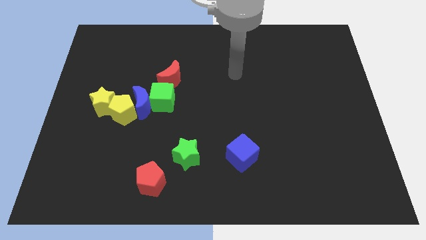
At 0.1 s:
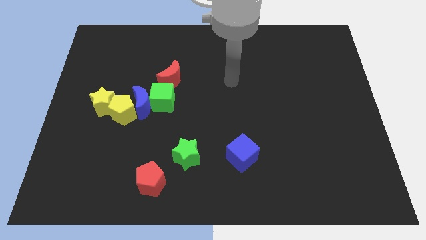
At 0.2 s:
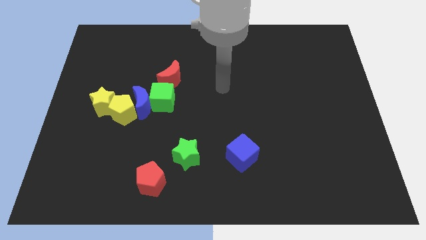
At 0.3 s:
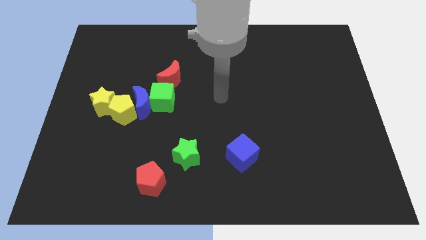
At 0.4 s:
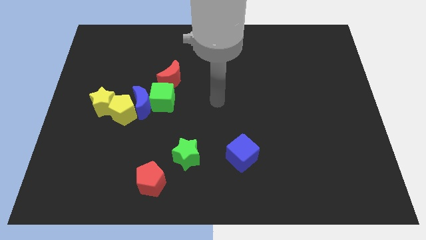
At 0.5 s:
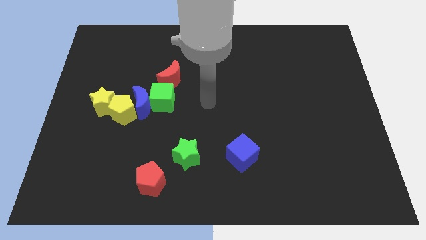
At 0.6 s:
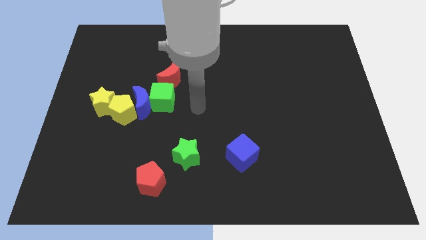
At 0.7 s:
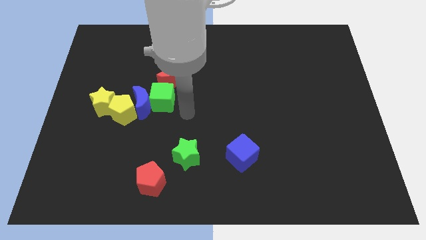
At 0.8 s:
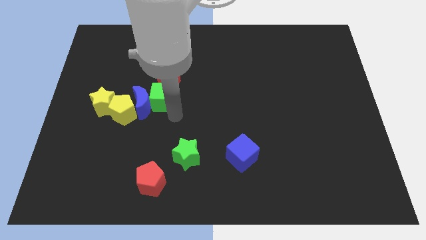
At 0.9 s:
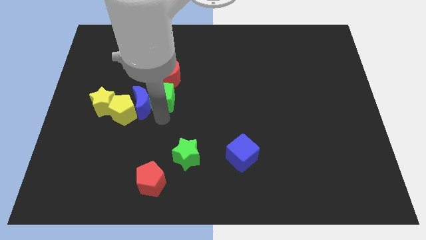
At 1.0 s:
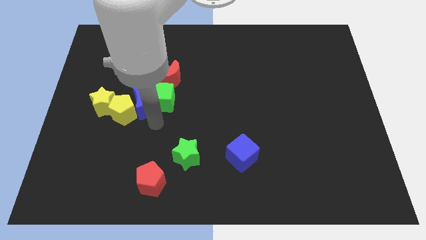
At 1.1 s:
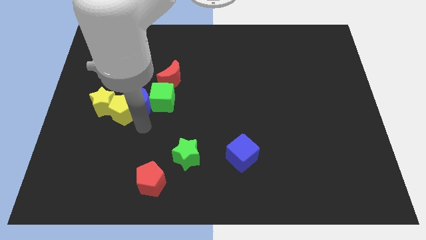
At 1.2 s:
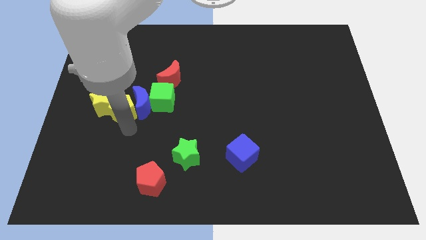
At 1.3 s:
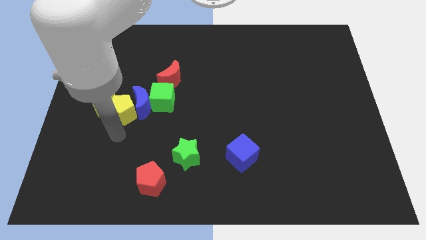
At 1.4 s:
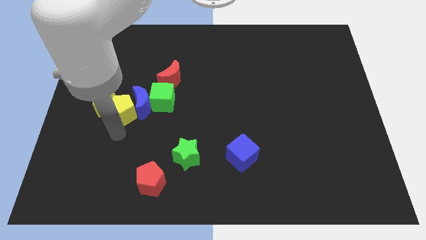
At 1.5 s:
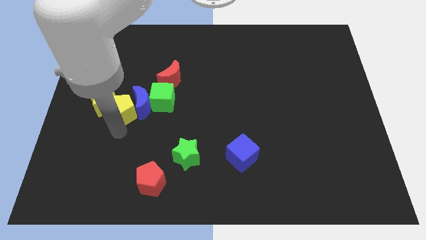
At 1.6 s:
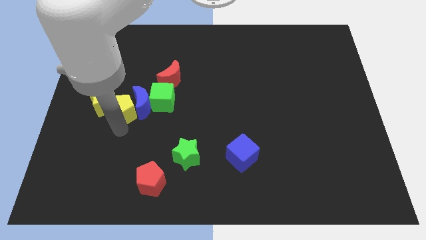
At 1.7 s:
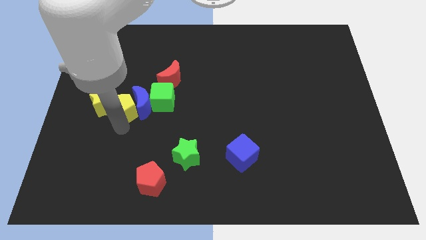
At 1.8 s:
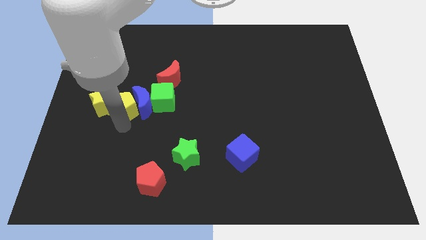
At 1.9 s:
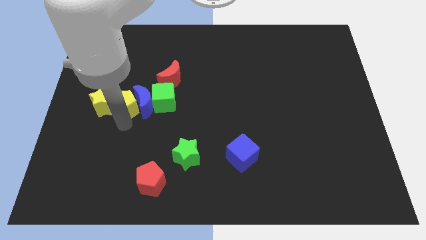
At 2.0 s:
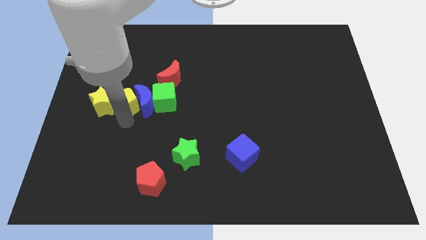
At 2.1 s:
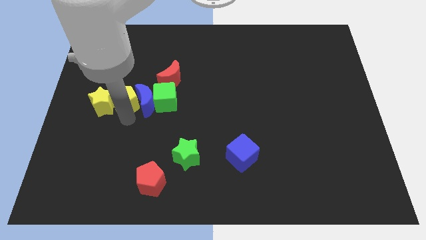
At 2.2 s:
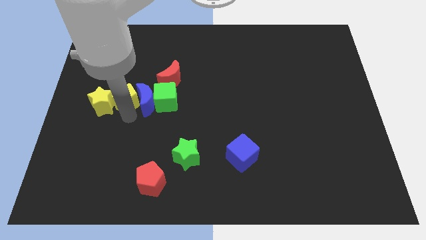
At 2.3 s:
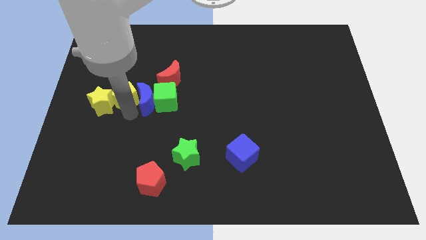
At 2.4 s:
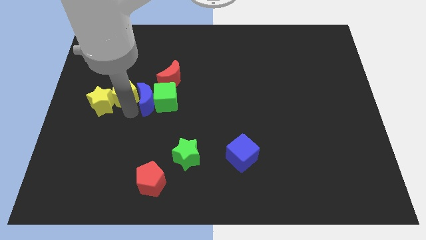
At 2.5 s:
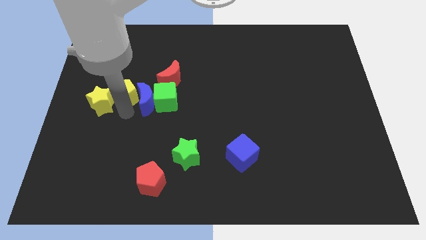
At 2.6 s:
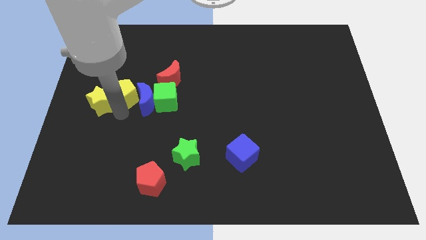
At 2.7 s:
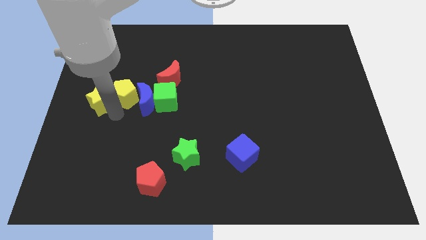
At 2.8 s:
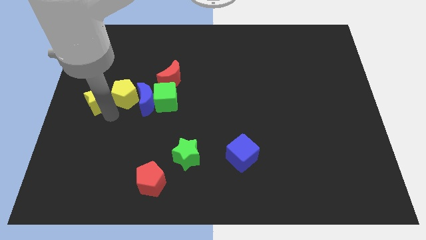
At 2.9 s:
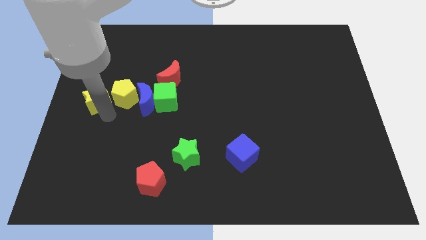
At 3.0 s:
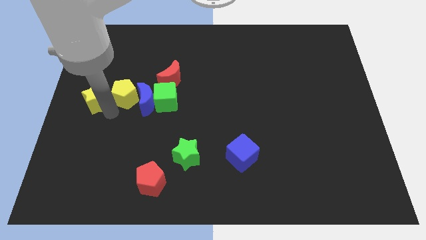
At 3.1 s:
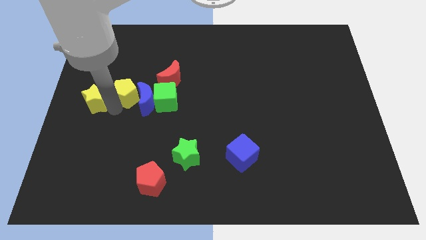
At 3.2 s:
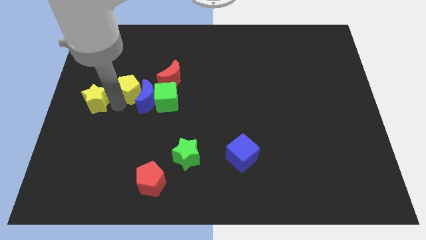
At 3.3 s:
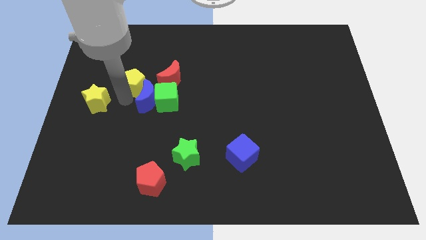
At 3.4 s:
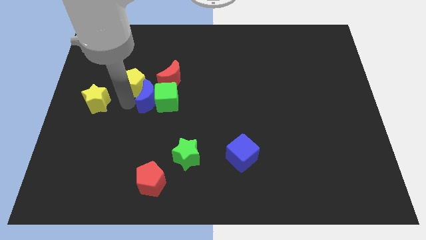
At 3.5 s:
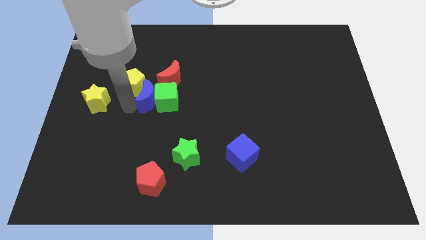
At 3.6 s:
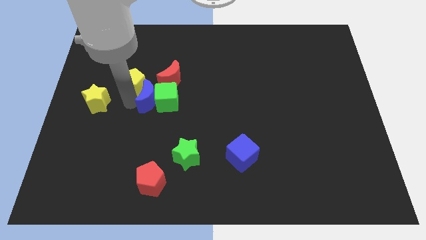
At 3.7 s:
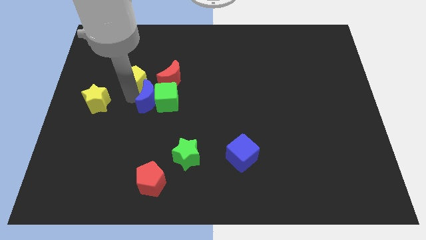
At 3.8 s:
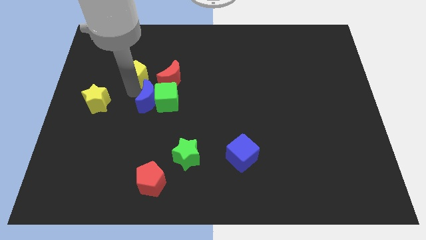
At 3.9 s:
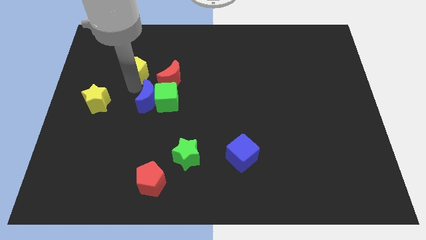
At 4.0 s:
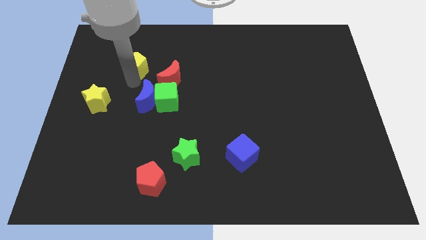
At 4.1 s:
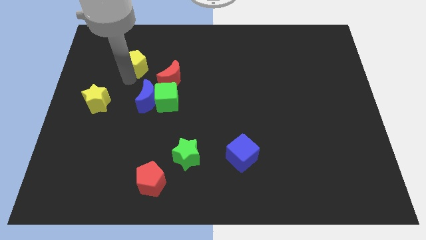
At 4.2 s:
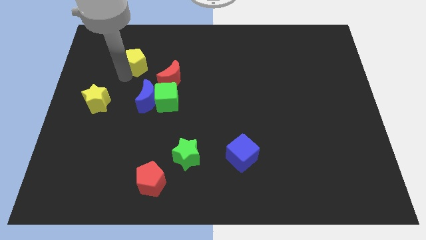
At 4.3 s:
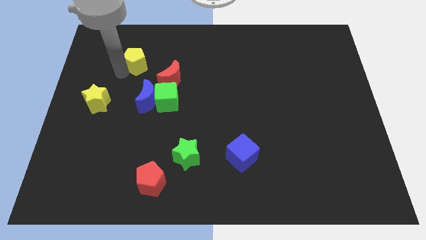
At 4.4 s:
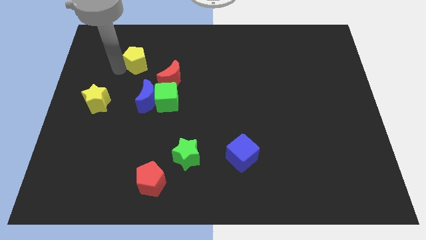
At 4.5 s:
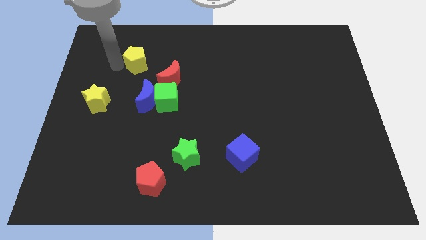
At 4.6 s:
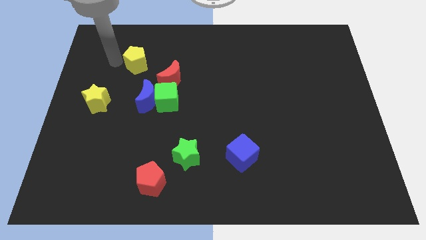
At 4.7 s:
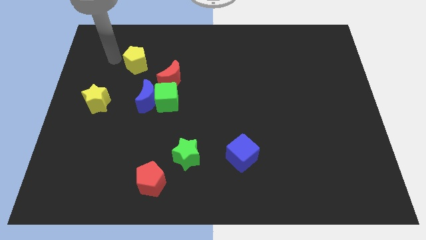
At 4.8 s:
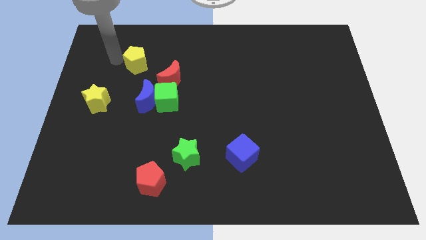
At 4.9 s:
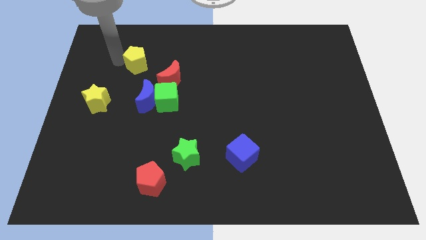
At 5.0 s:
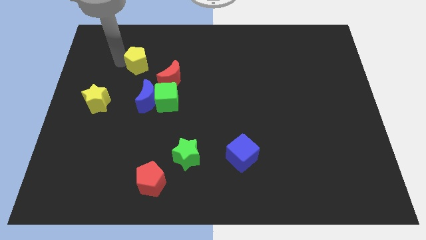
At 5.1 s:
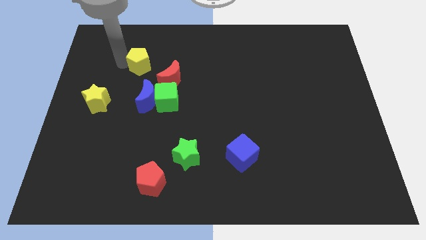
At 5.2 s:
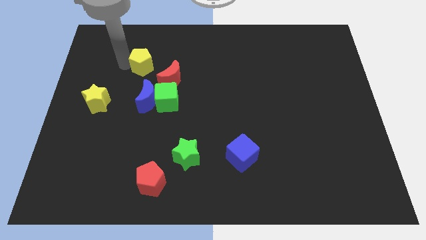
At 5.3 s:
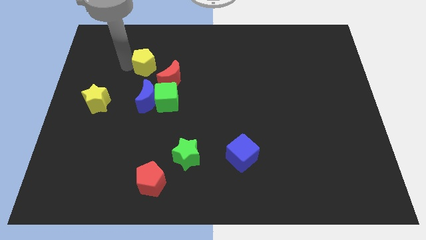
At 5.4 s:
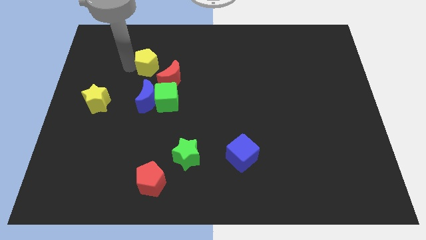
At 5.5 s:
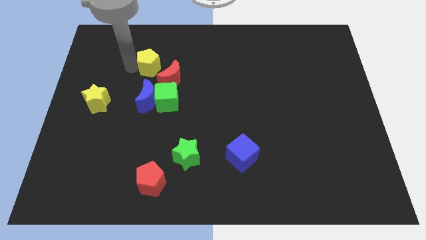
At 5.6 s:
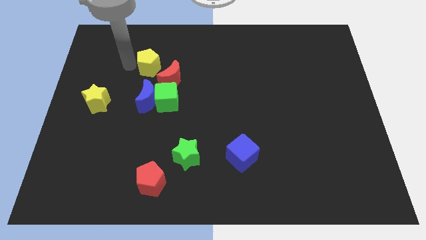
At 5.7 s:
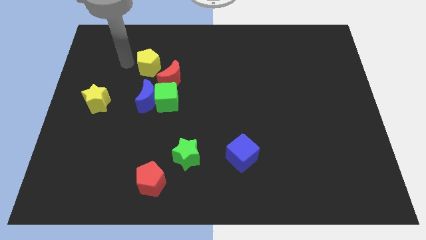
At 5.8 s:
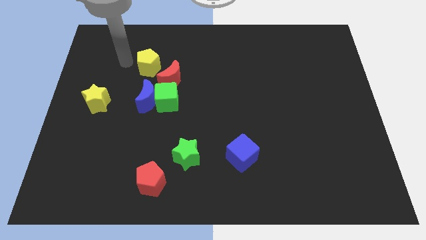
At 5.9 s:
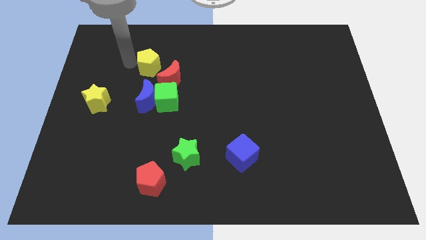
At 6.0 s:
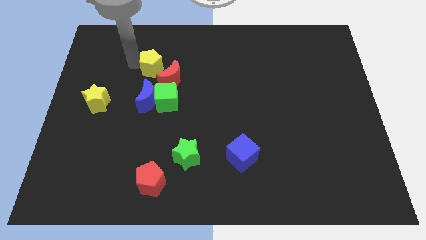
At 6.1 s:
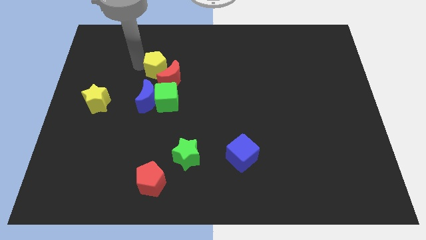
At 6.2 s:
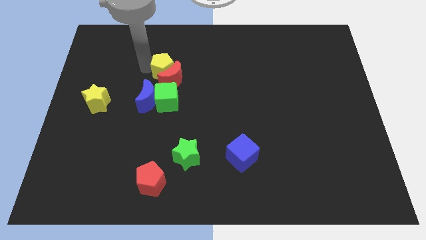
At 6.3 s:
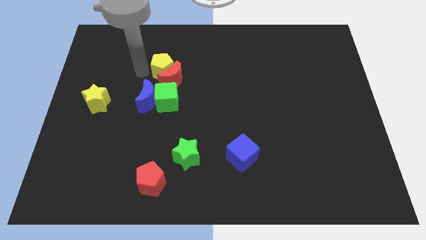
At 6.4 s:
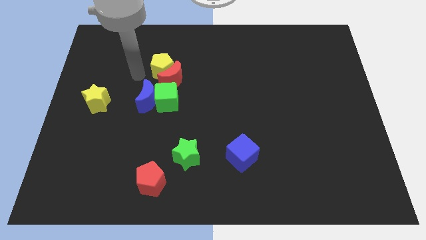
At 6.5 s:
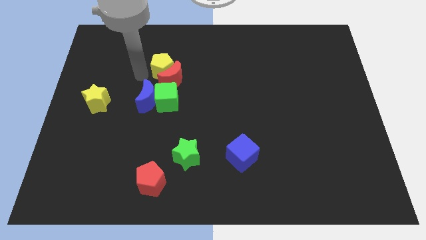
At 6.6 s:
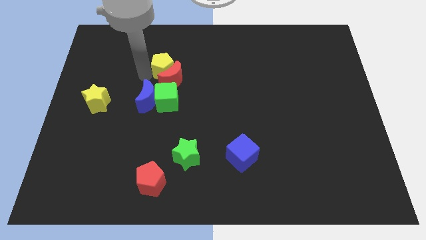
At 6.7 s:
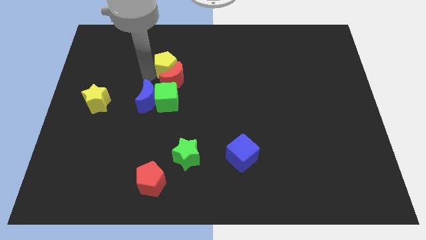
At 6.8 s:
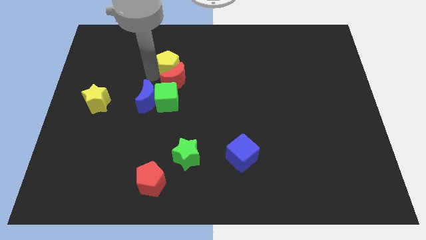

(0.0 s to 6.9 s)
put the yellow pentagon diagonally up and to the right of the red moon

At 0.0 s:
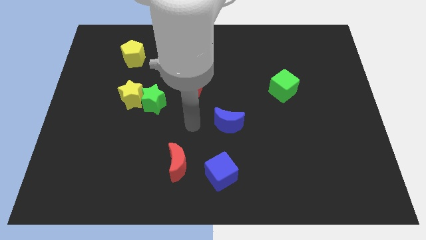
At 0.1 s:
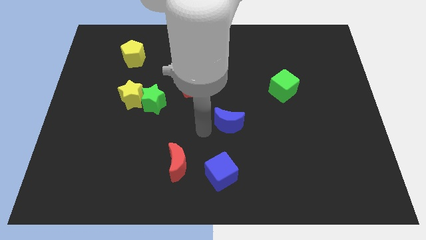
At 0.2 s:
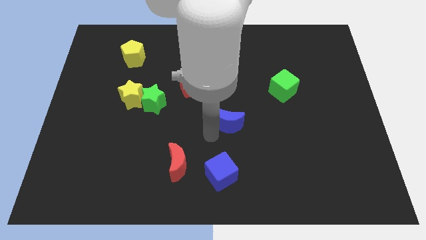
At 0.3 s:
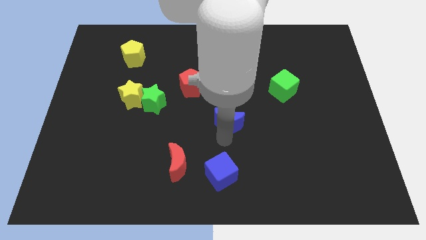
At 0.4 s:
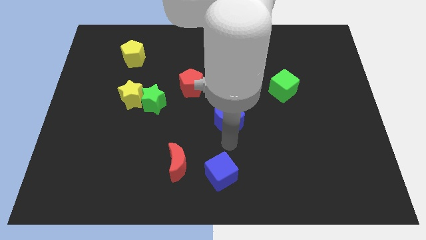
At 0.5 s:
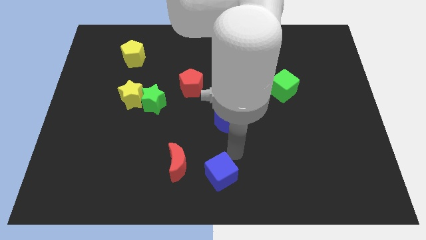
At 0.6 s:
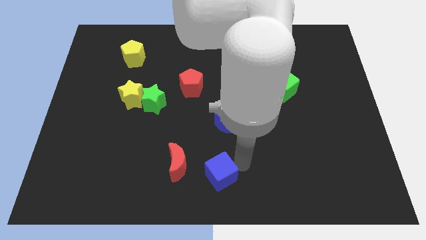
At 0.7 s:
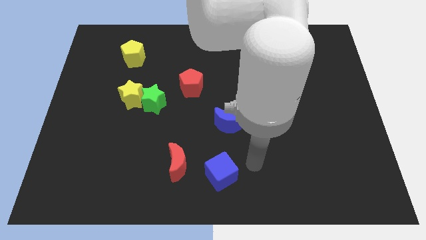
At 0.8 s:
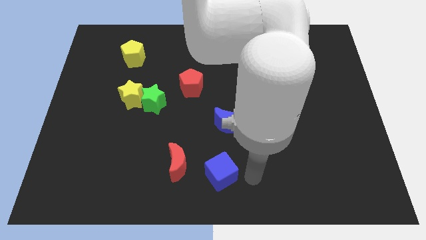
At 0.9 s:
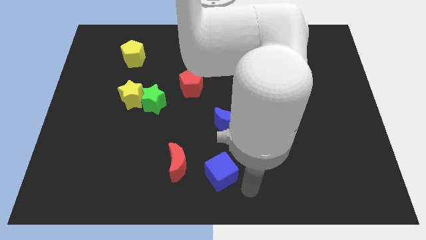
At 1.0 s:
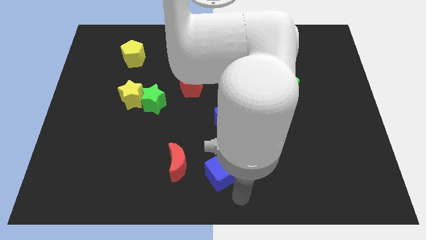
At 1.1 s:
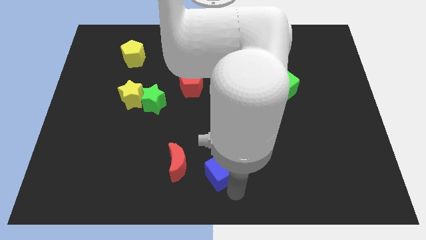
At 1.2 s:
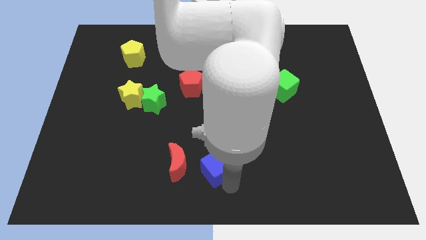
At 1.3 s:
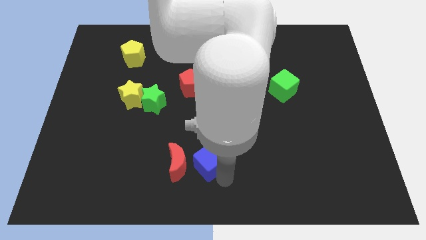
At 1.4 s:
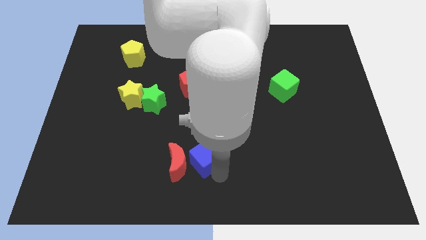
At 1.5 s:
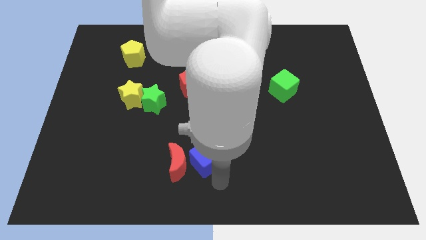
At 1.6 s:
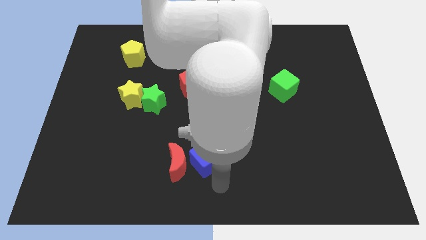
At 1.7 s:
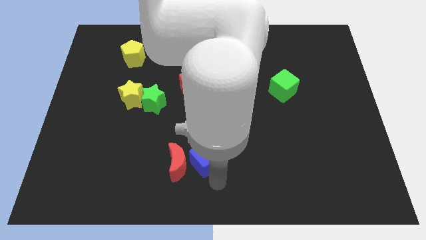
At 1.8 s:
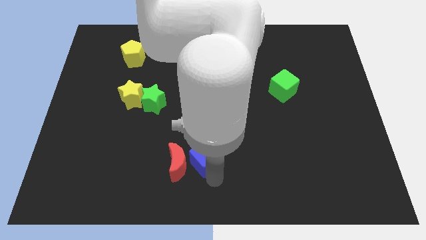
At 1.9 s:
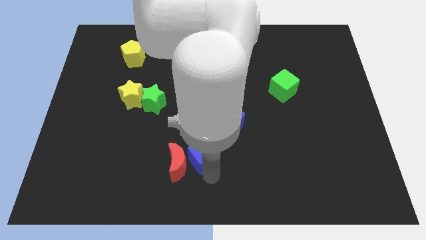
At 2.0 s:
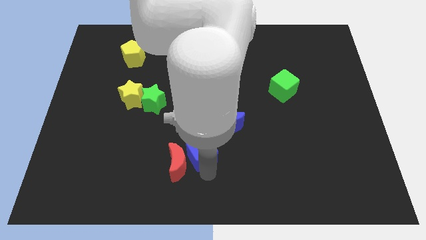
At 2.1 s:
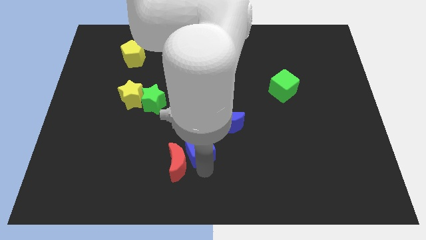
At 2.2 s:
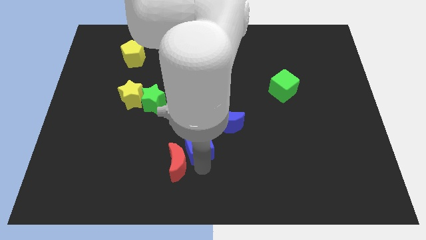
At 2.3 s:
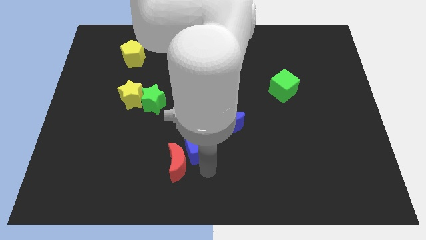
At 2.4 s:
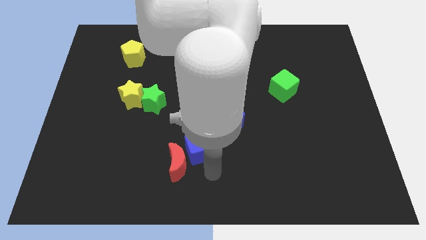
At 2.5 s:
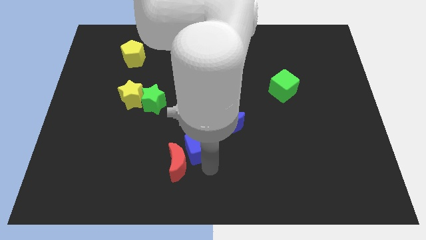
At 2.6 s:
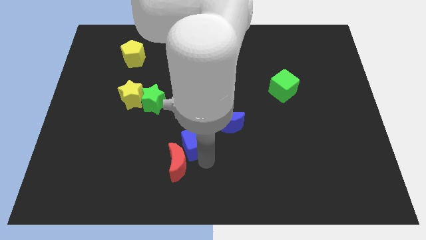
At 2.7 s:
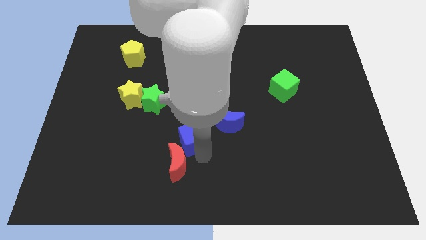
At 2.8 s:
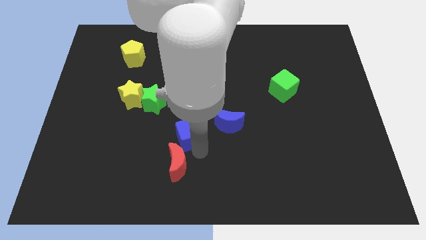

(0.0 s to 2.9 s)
slide the blue cube diagonally down and to the right of the green star
